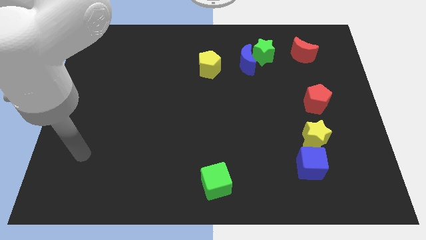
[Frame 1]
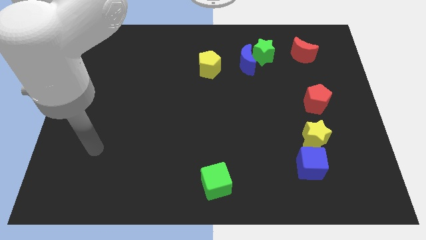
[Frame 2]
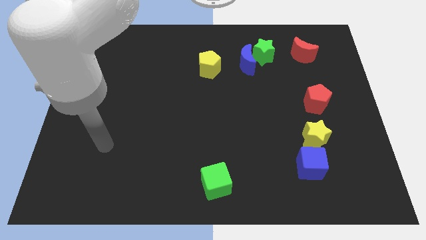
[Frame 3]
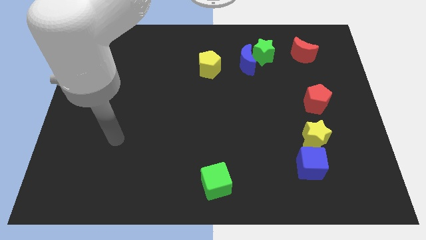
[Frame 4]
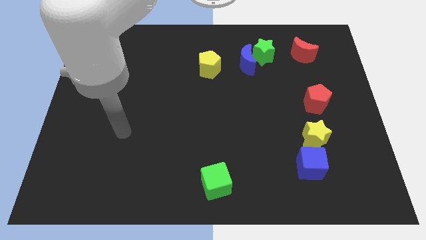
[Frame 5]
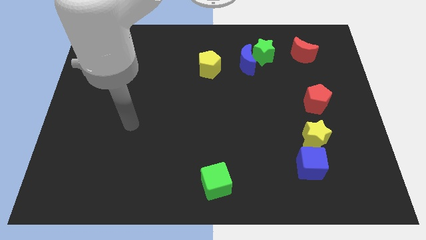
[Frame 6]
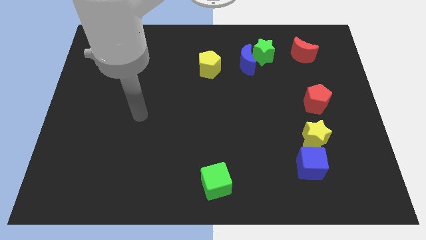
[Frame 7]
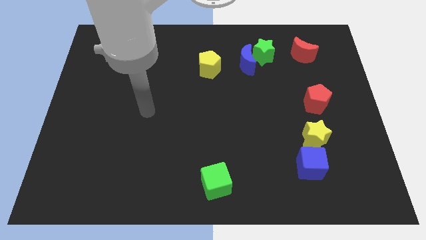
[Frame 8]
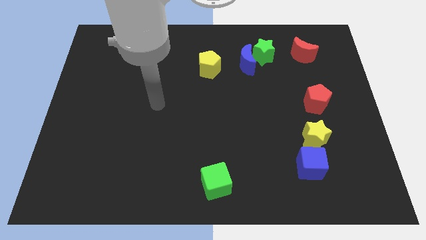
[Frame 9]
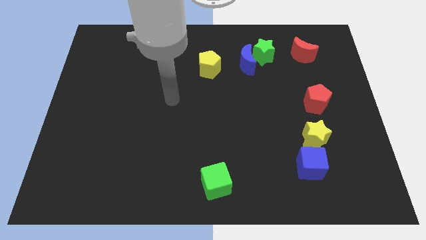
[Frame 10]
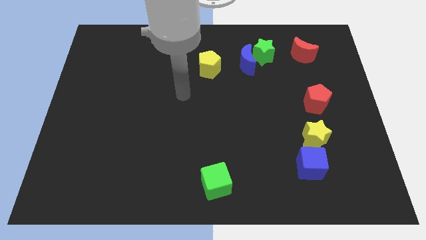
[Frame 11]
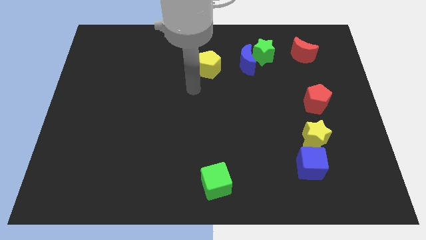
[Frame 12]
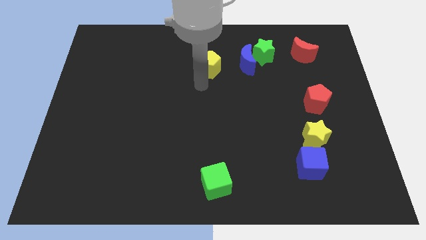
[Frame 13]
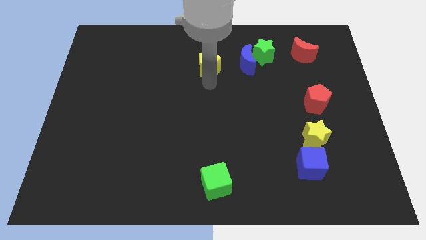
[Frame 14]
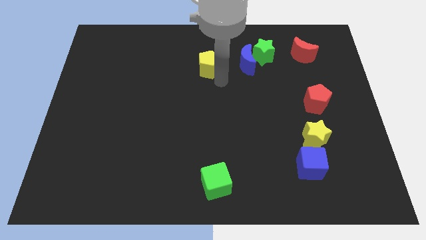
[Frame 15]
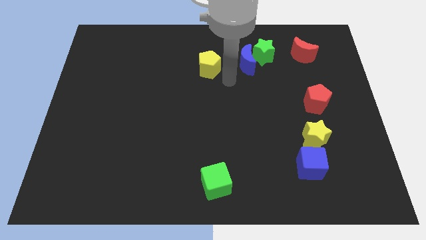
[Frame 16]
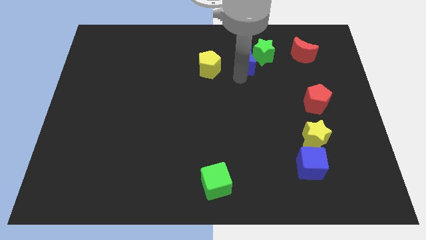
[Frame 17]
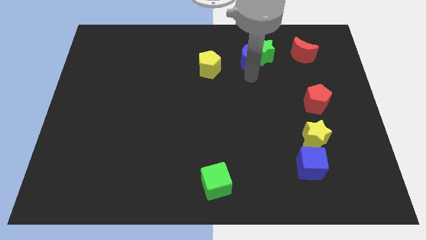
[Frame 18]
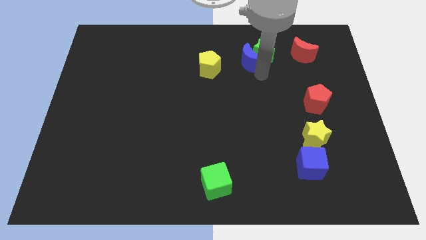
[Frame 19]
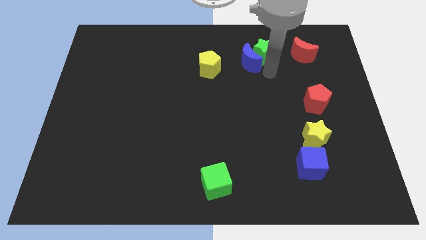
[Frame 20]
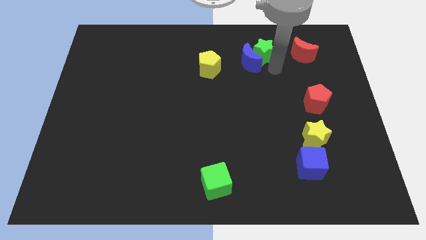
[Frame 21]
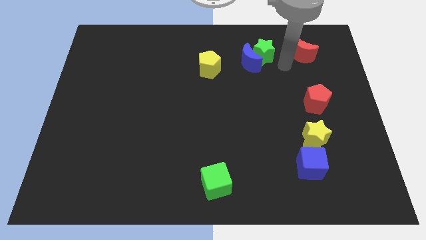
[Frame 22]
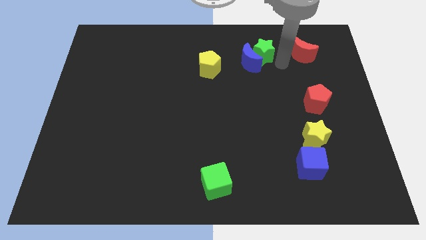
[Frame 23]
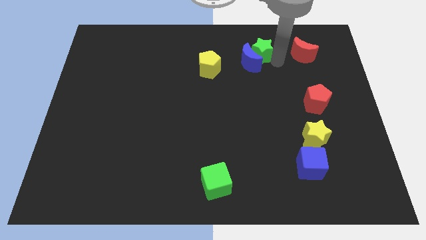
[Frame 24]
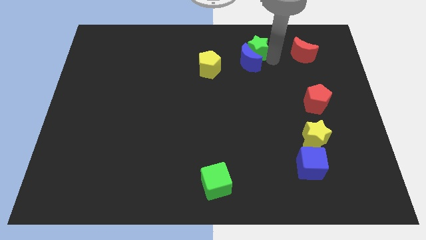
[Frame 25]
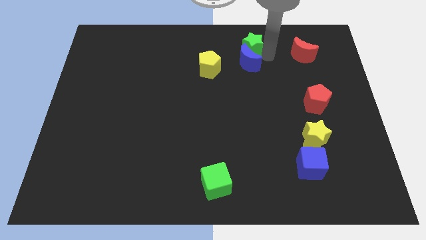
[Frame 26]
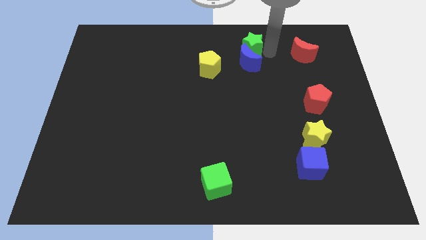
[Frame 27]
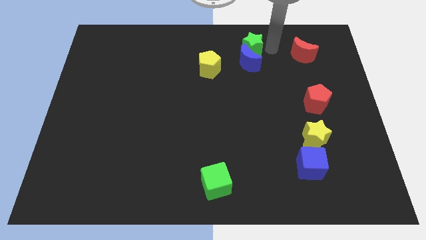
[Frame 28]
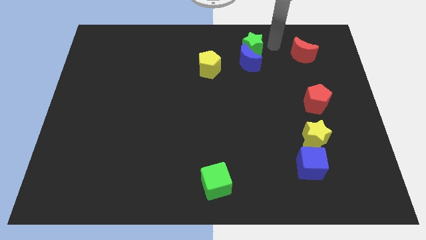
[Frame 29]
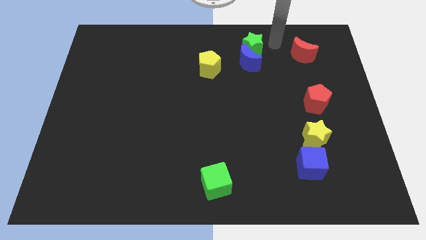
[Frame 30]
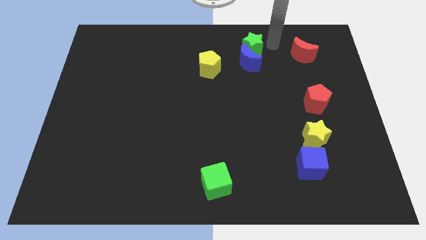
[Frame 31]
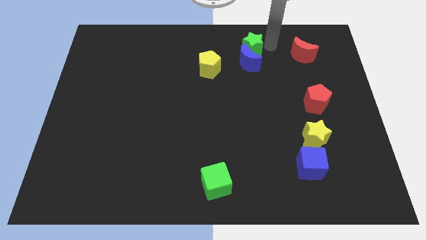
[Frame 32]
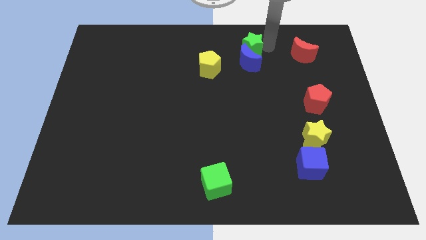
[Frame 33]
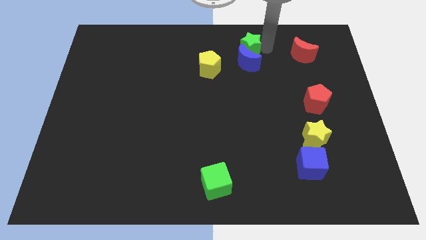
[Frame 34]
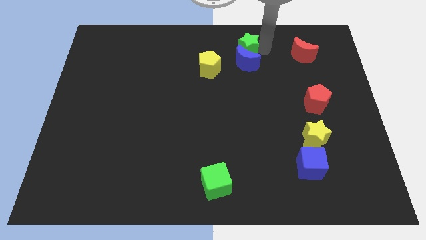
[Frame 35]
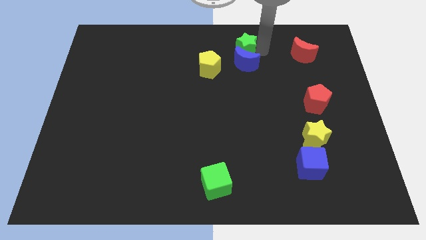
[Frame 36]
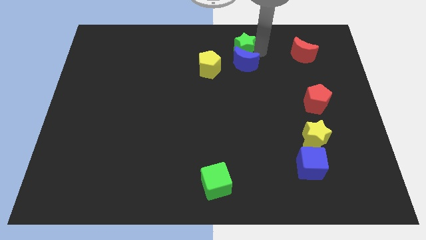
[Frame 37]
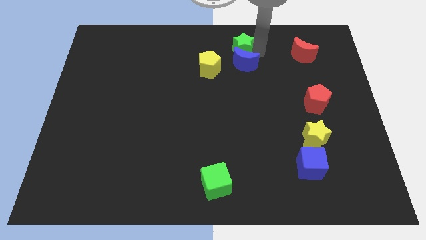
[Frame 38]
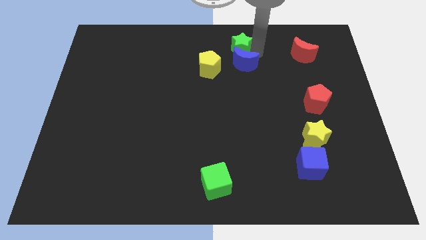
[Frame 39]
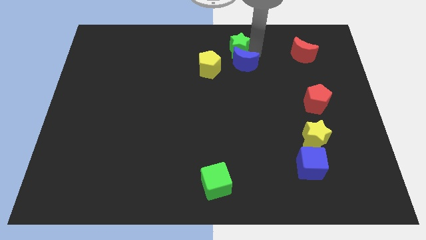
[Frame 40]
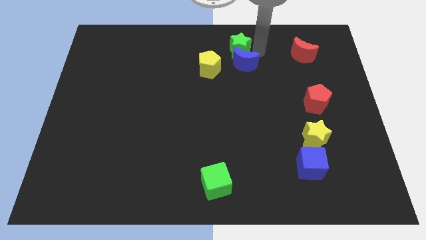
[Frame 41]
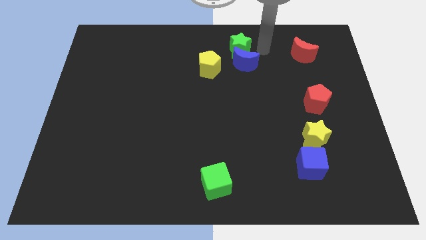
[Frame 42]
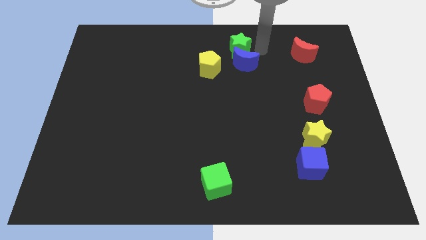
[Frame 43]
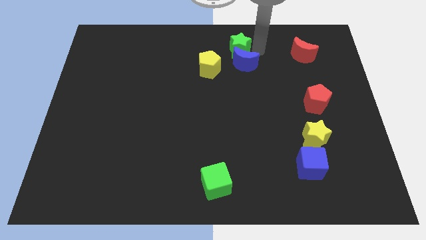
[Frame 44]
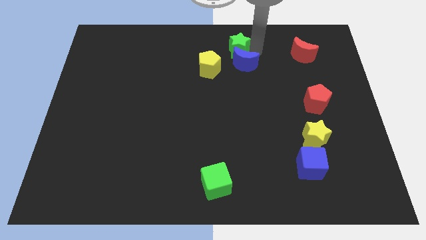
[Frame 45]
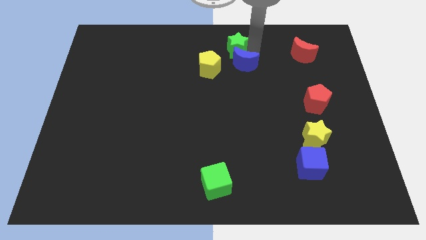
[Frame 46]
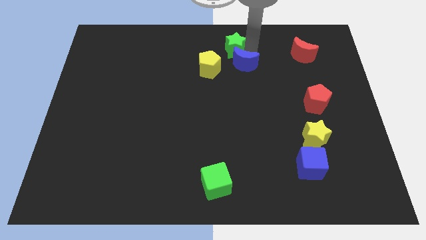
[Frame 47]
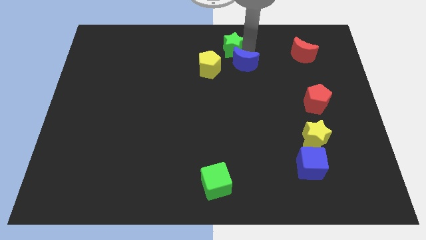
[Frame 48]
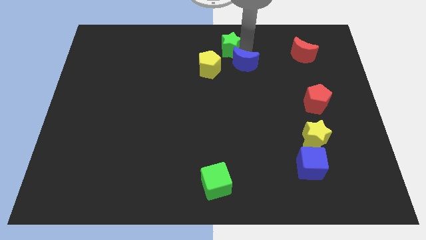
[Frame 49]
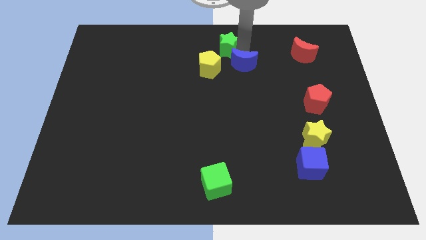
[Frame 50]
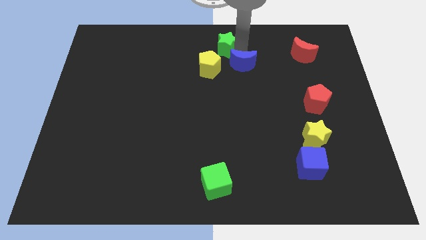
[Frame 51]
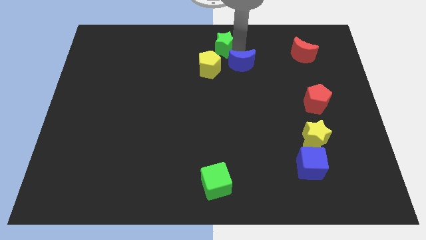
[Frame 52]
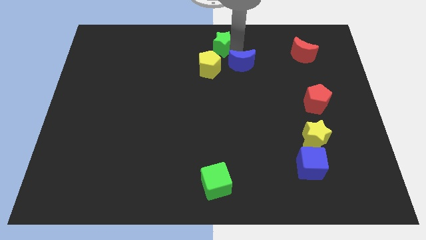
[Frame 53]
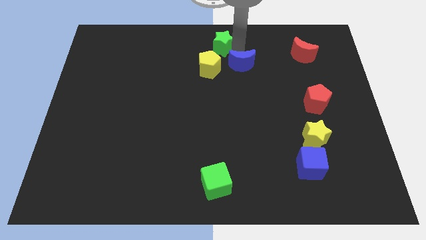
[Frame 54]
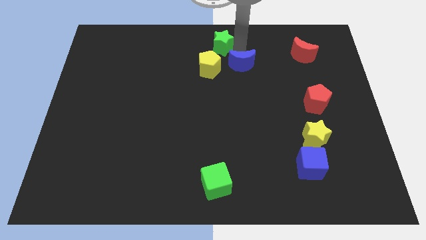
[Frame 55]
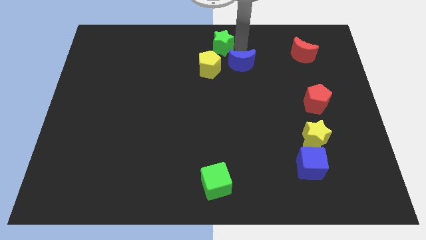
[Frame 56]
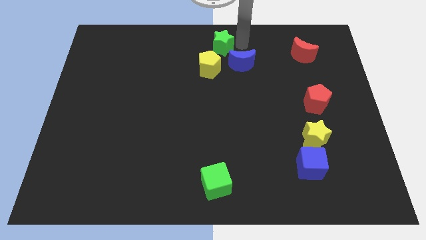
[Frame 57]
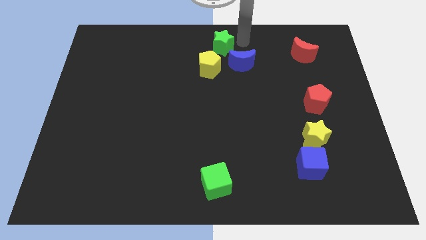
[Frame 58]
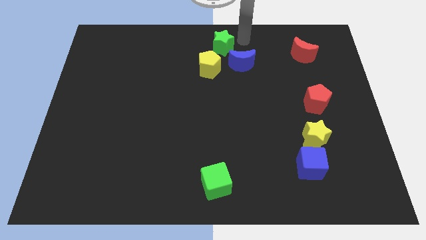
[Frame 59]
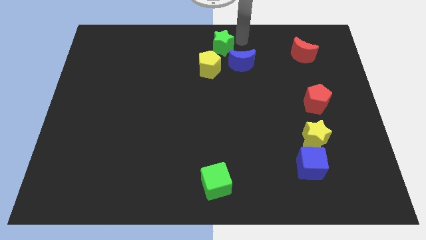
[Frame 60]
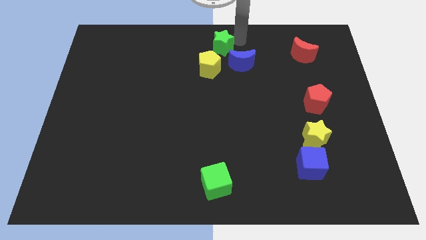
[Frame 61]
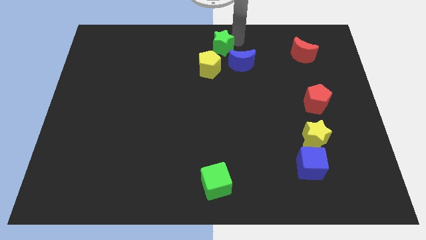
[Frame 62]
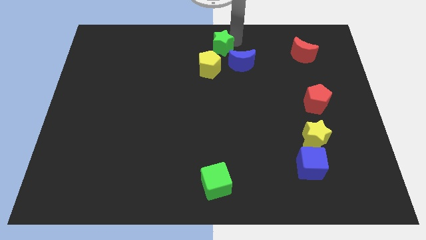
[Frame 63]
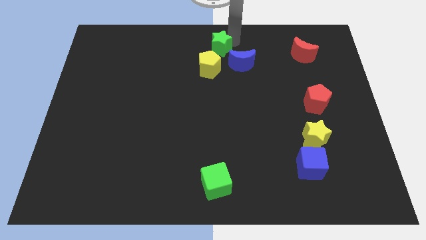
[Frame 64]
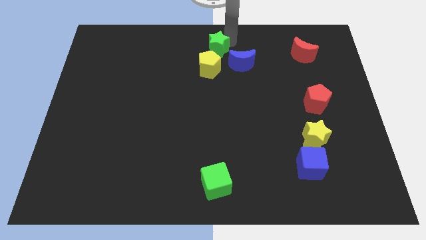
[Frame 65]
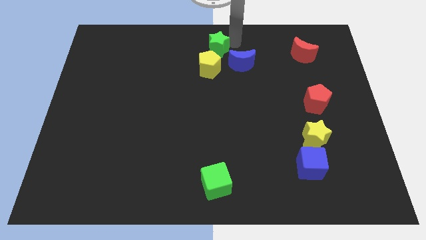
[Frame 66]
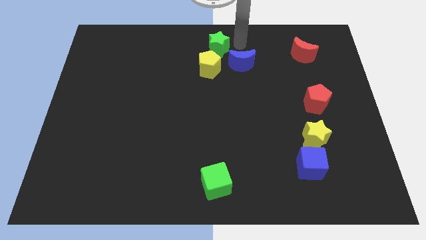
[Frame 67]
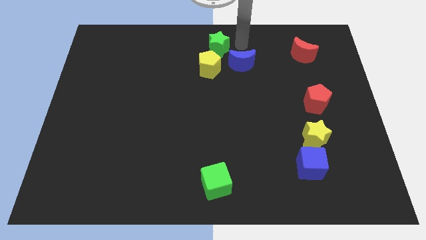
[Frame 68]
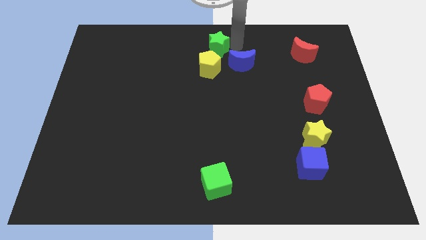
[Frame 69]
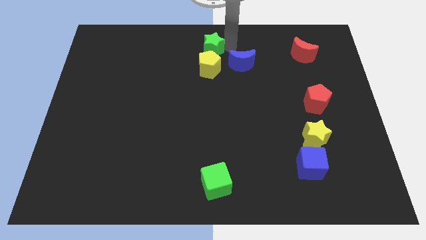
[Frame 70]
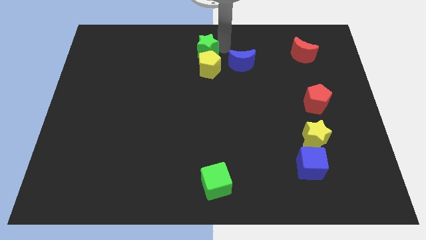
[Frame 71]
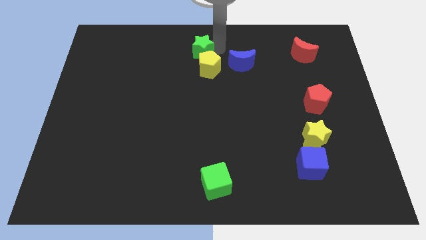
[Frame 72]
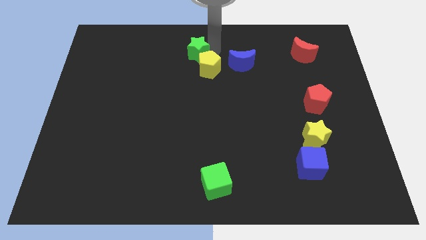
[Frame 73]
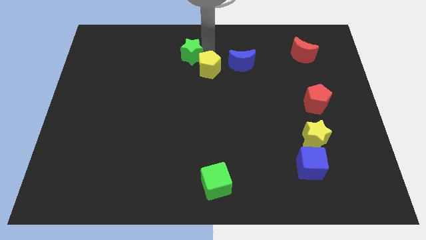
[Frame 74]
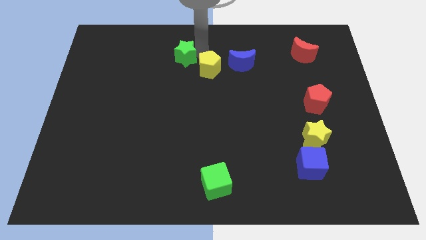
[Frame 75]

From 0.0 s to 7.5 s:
move the green star to the left

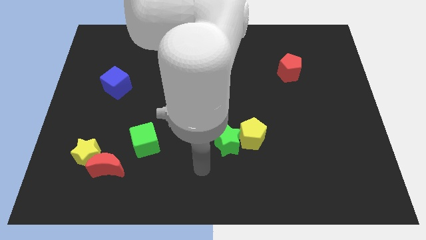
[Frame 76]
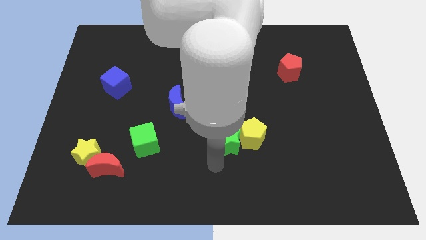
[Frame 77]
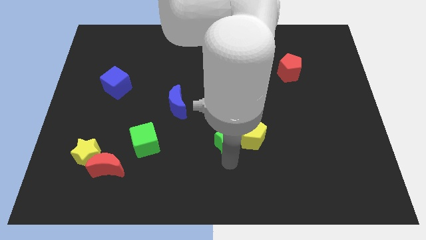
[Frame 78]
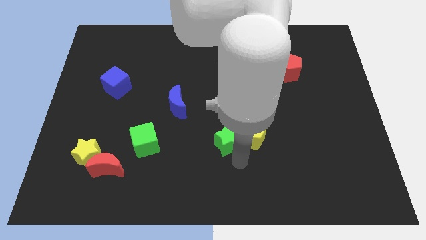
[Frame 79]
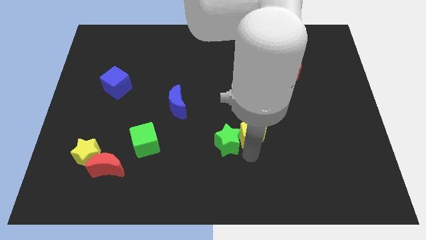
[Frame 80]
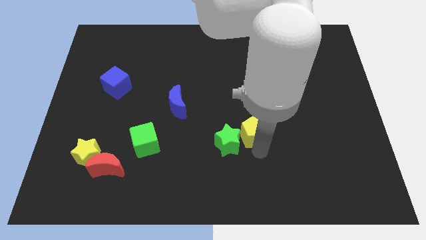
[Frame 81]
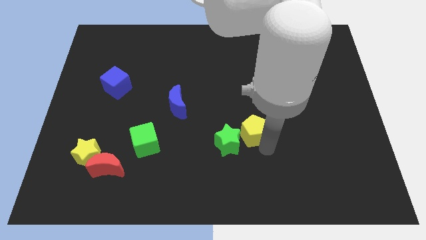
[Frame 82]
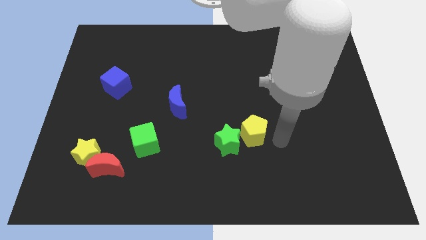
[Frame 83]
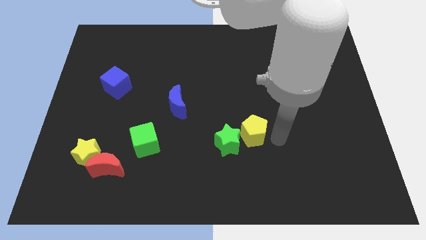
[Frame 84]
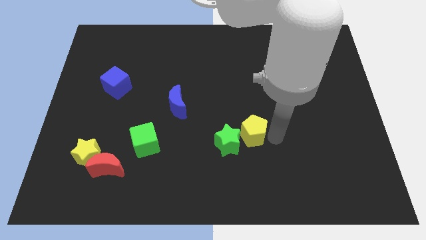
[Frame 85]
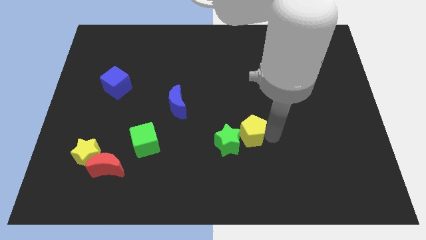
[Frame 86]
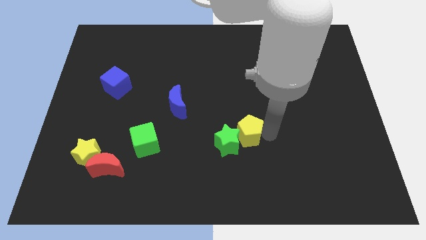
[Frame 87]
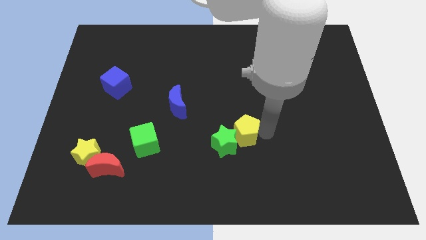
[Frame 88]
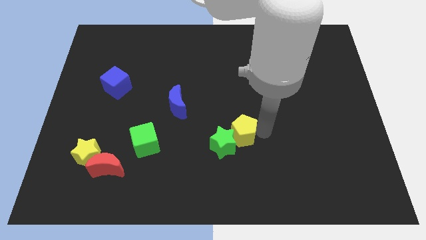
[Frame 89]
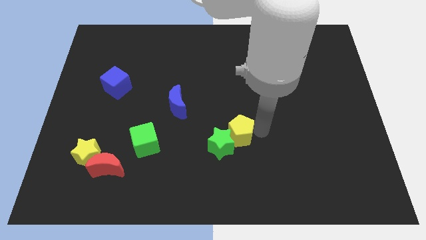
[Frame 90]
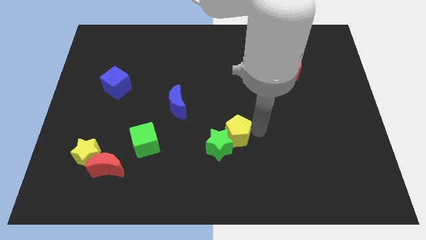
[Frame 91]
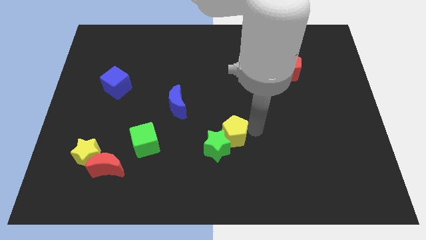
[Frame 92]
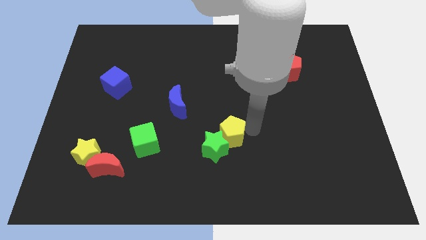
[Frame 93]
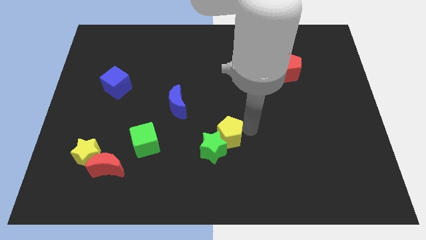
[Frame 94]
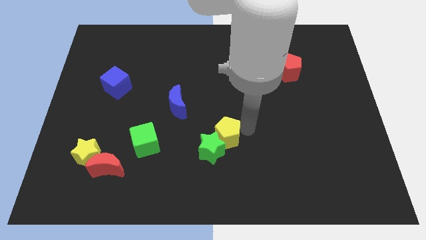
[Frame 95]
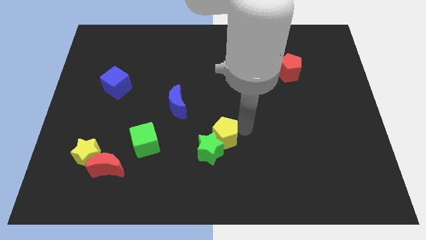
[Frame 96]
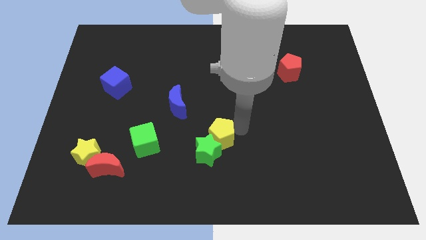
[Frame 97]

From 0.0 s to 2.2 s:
push the yellow pentagon somewhat left
